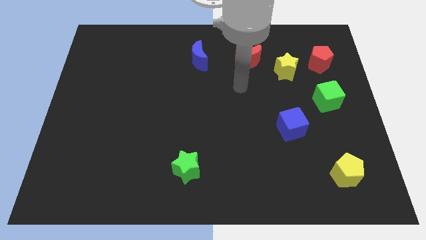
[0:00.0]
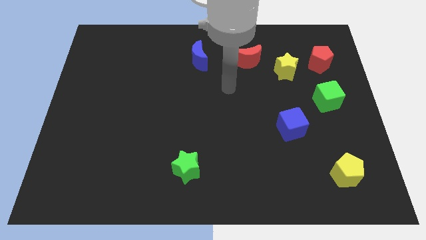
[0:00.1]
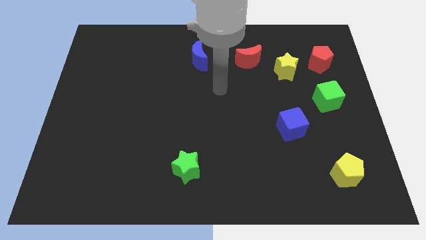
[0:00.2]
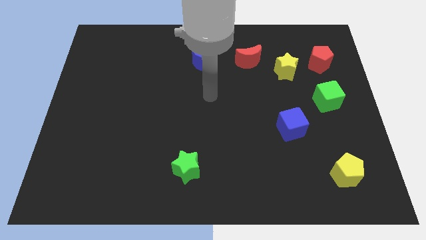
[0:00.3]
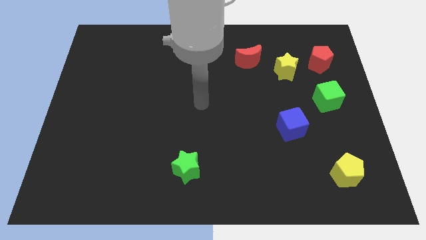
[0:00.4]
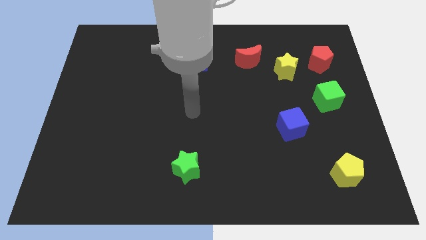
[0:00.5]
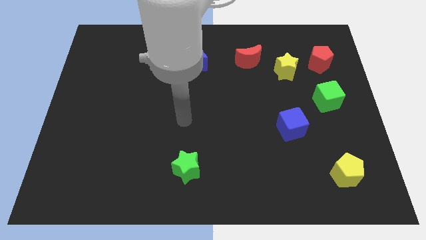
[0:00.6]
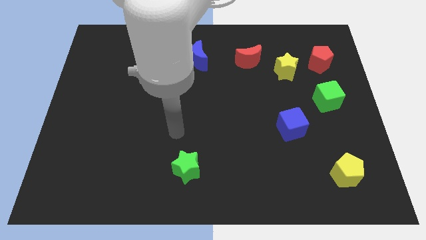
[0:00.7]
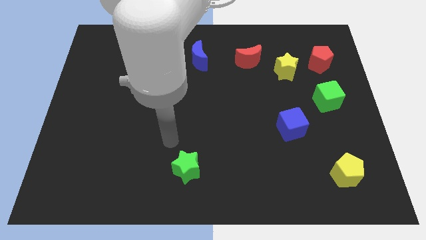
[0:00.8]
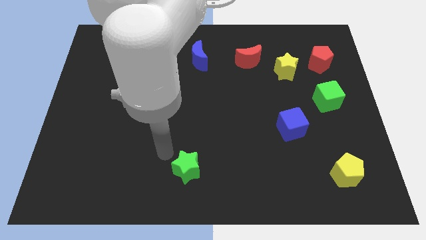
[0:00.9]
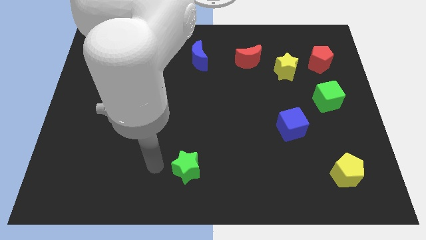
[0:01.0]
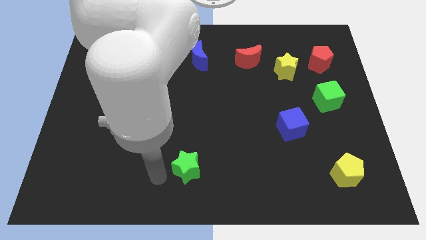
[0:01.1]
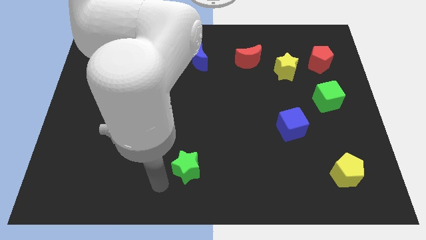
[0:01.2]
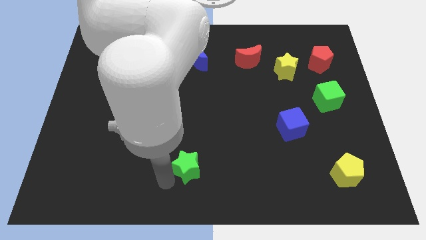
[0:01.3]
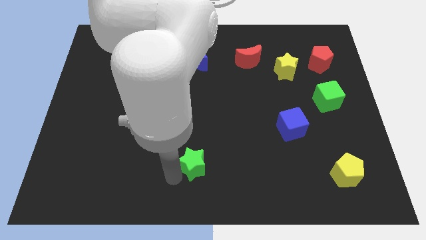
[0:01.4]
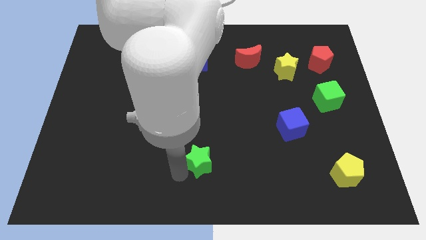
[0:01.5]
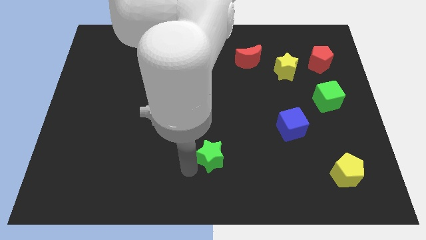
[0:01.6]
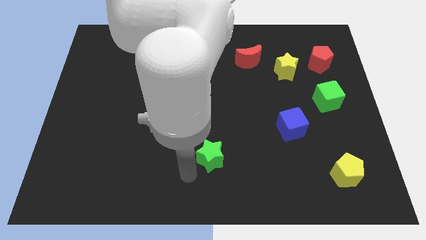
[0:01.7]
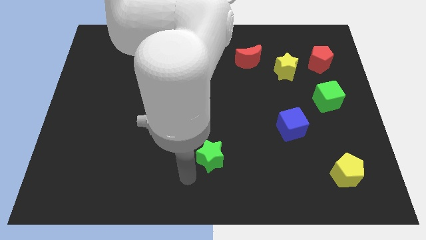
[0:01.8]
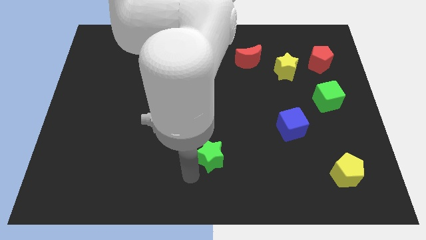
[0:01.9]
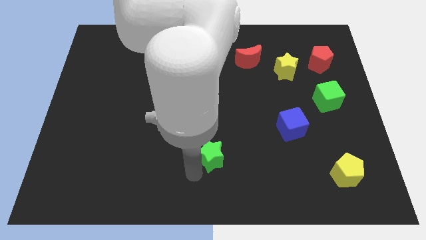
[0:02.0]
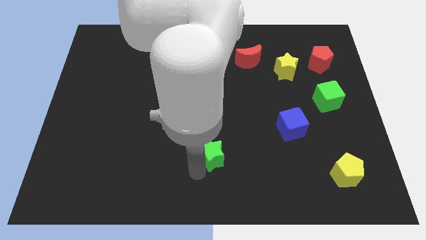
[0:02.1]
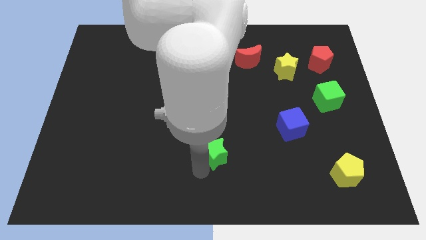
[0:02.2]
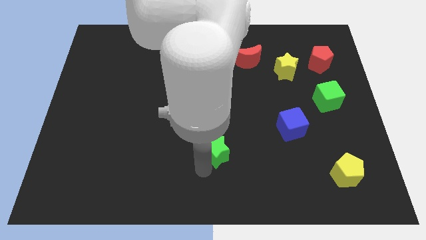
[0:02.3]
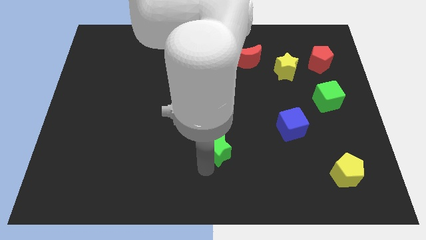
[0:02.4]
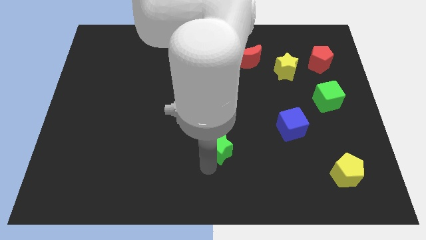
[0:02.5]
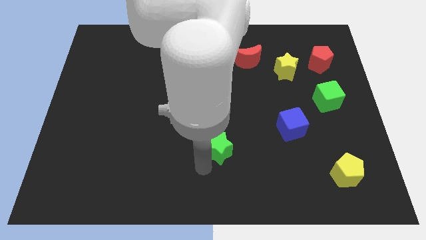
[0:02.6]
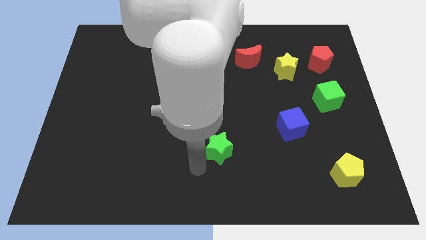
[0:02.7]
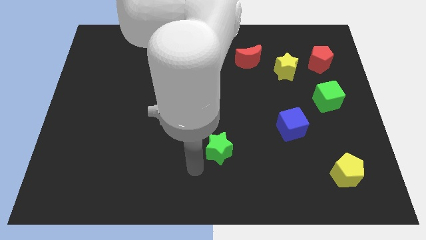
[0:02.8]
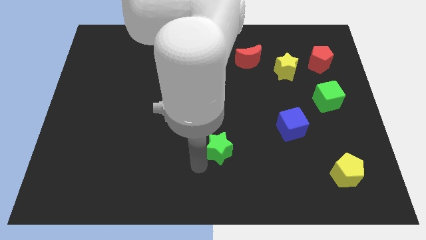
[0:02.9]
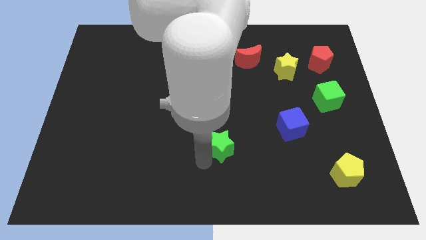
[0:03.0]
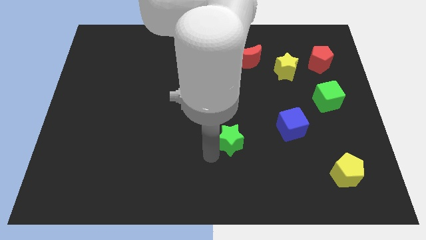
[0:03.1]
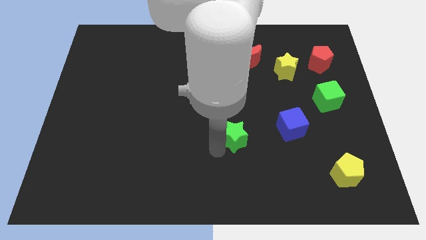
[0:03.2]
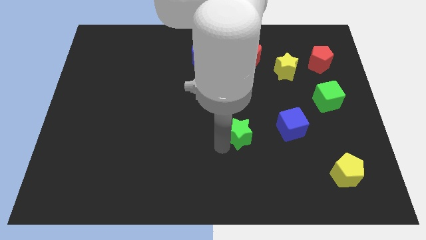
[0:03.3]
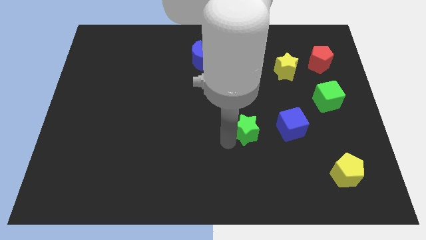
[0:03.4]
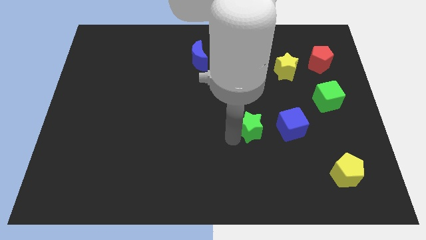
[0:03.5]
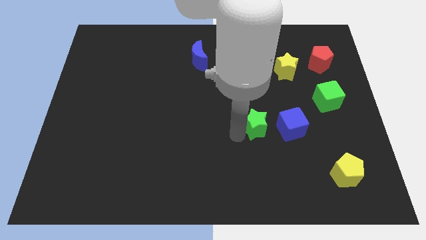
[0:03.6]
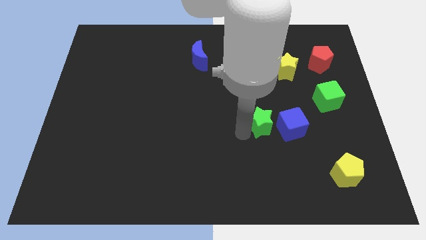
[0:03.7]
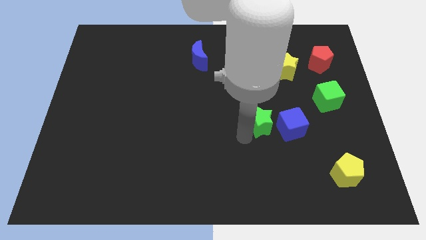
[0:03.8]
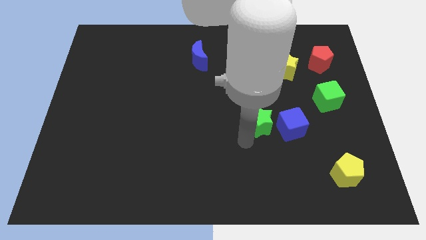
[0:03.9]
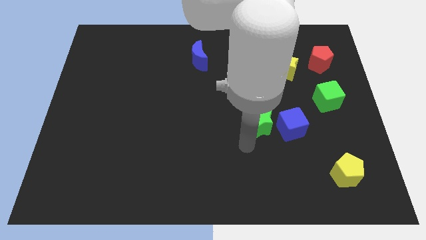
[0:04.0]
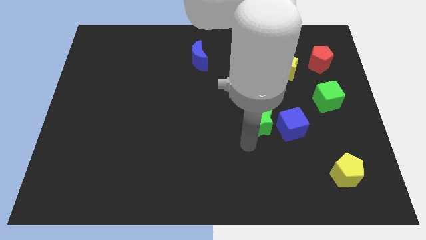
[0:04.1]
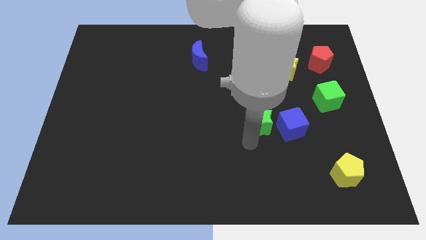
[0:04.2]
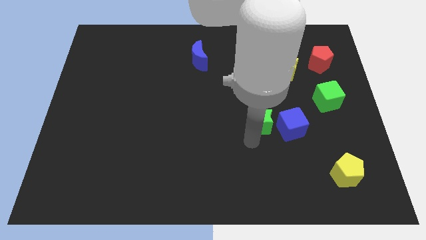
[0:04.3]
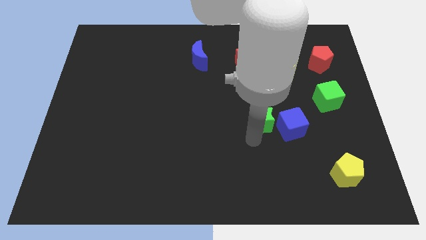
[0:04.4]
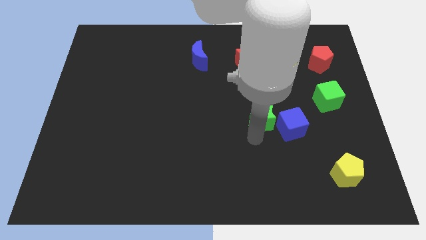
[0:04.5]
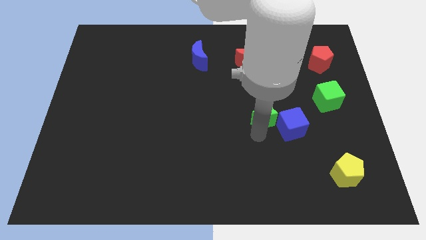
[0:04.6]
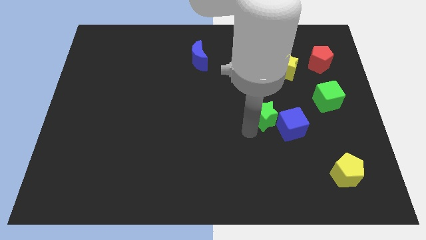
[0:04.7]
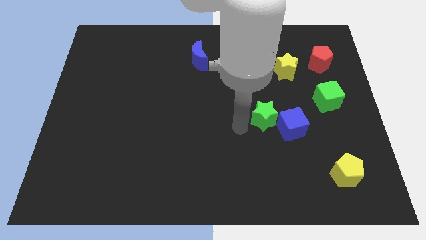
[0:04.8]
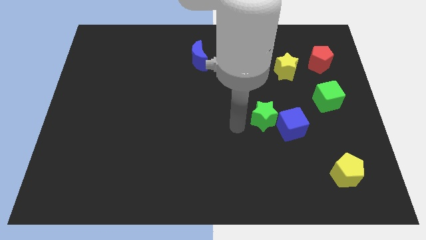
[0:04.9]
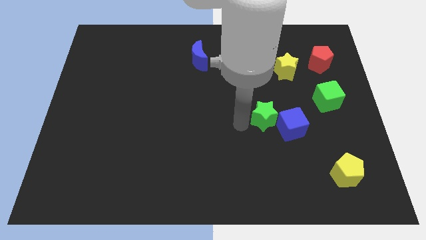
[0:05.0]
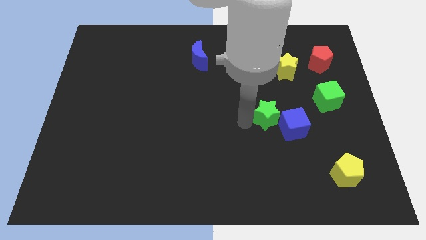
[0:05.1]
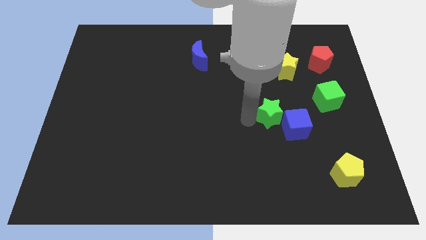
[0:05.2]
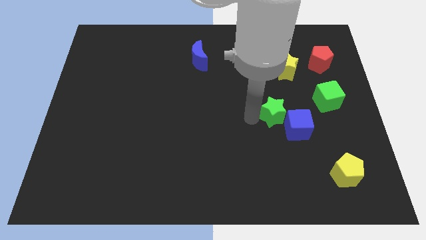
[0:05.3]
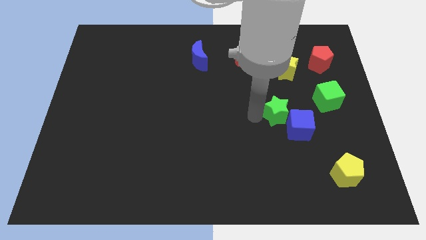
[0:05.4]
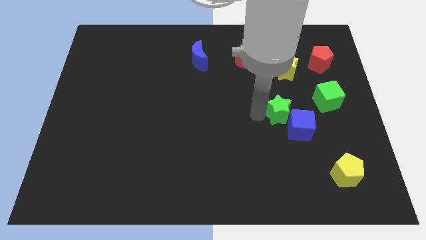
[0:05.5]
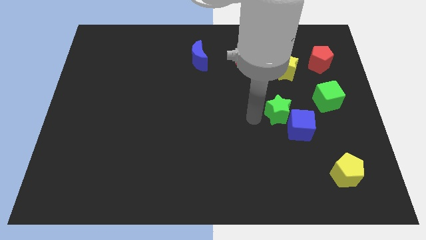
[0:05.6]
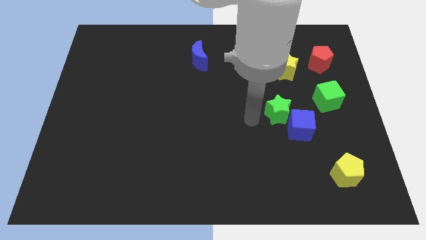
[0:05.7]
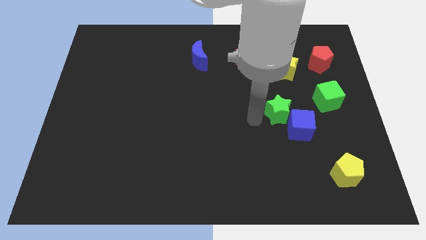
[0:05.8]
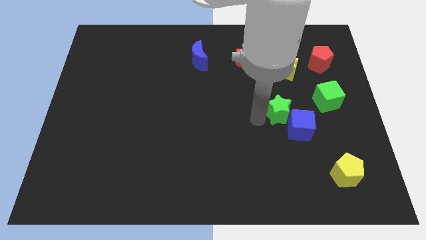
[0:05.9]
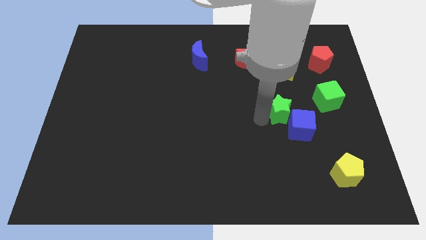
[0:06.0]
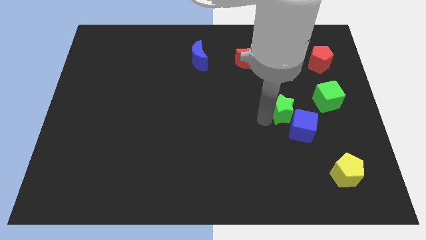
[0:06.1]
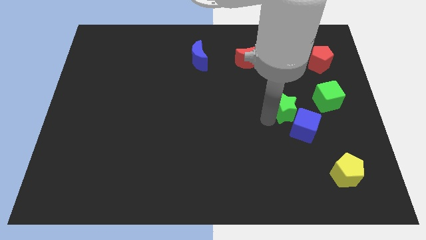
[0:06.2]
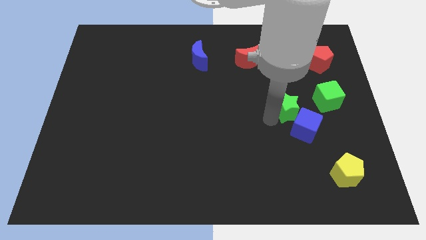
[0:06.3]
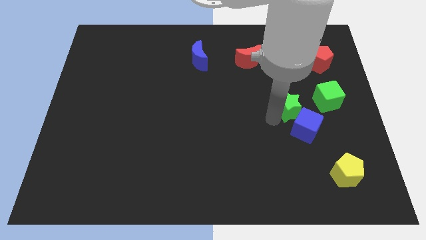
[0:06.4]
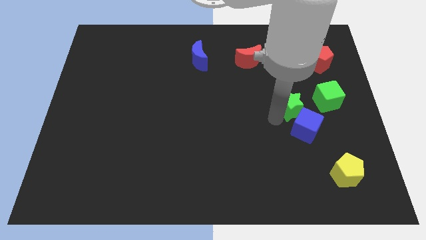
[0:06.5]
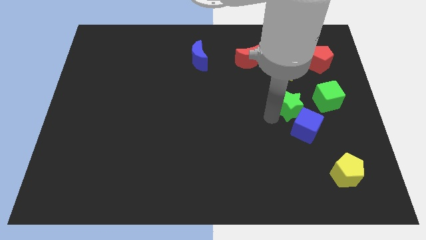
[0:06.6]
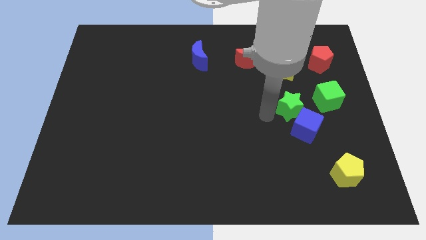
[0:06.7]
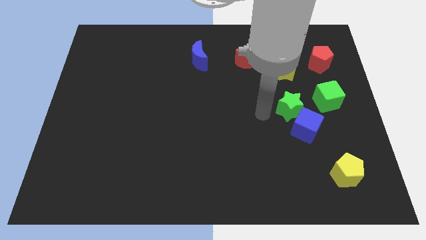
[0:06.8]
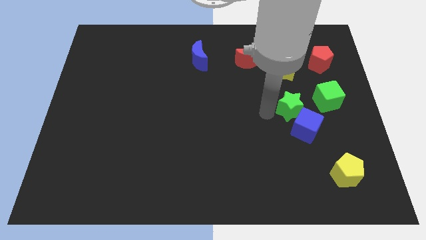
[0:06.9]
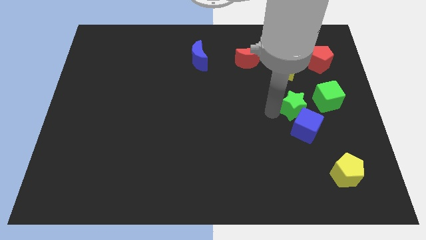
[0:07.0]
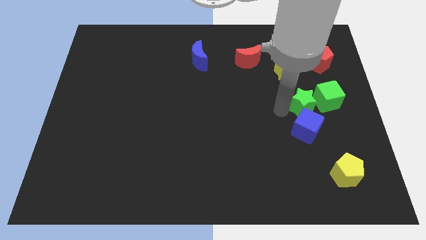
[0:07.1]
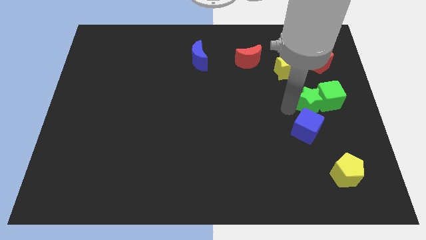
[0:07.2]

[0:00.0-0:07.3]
push the green star towards the green cube
